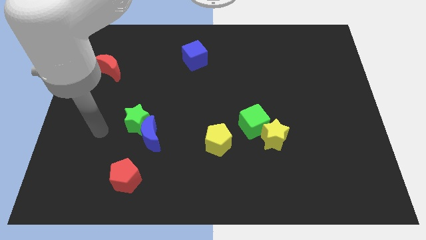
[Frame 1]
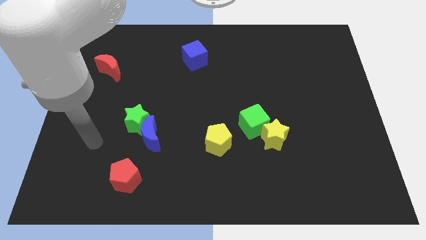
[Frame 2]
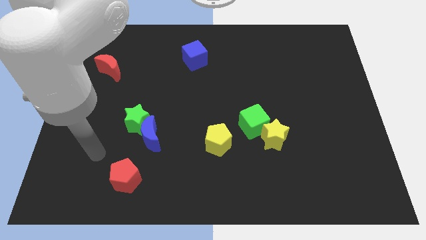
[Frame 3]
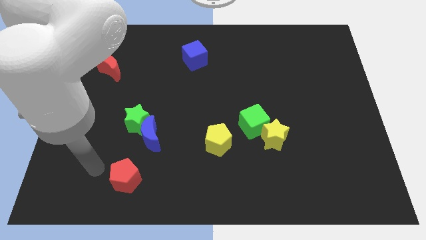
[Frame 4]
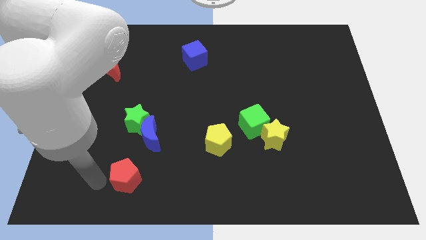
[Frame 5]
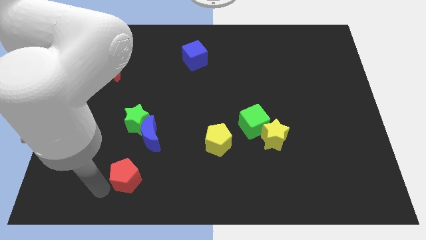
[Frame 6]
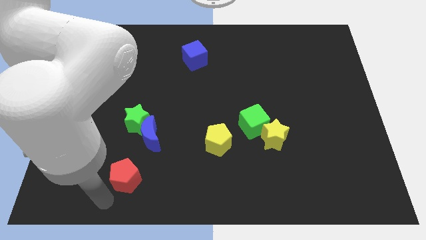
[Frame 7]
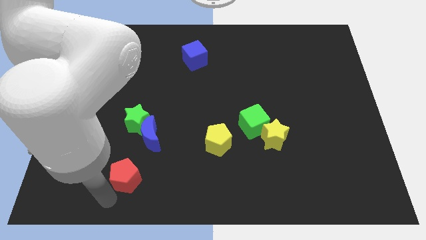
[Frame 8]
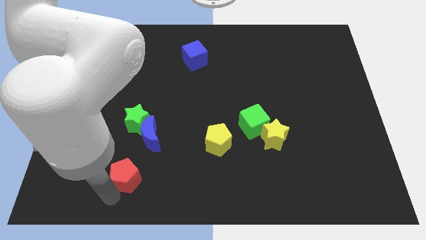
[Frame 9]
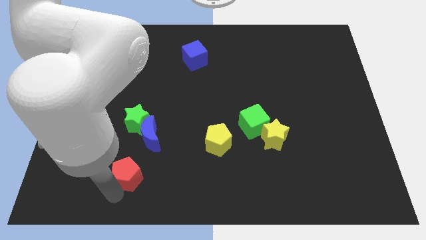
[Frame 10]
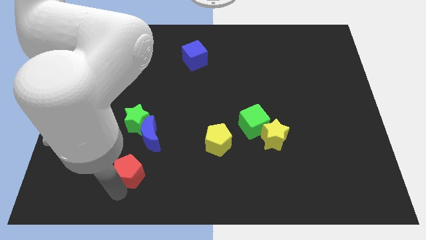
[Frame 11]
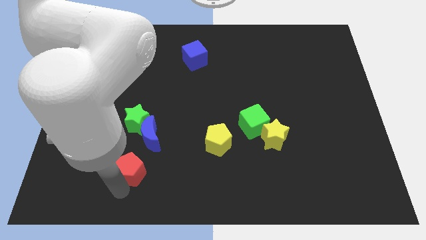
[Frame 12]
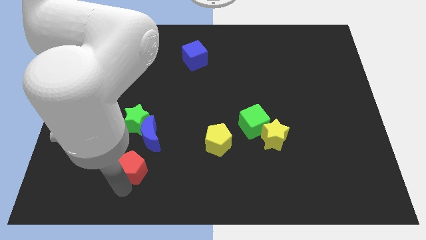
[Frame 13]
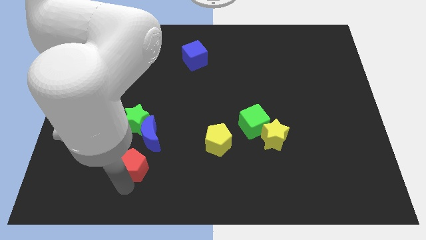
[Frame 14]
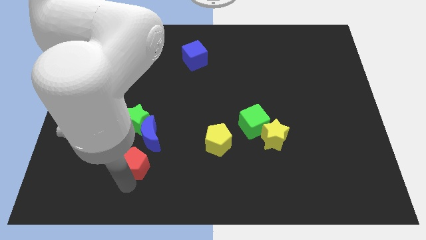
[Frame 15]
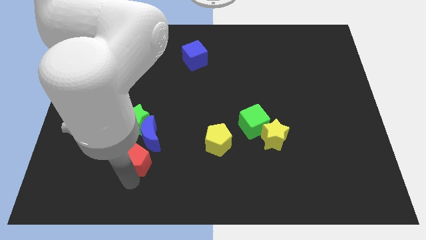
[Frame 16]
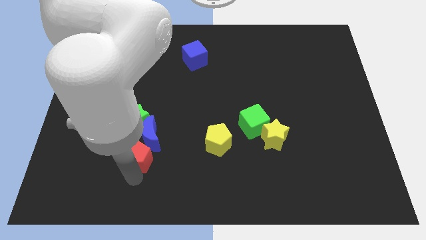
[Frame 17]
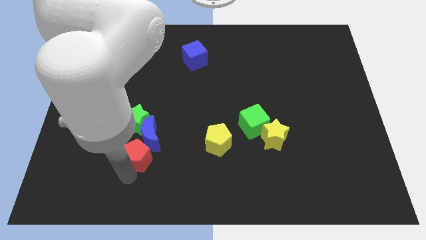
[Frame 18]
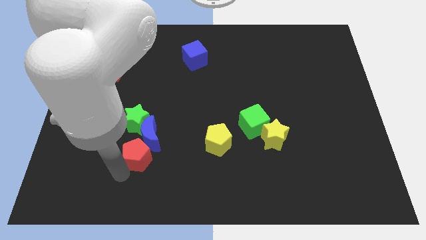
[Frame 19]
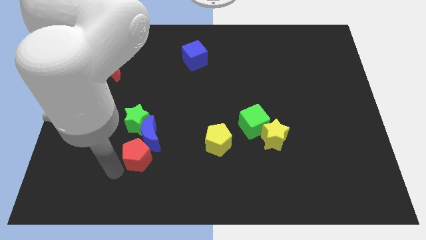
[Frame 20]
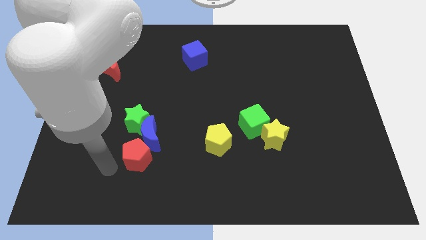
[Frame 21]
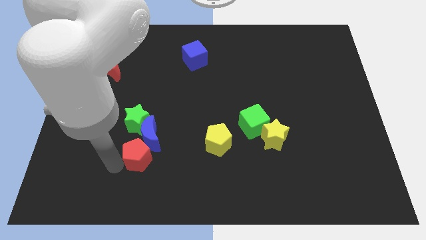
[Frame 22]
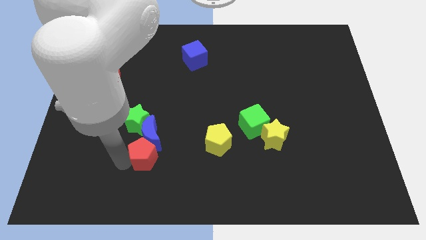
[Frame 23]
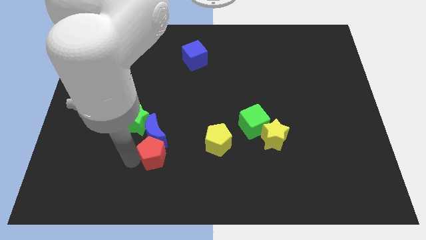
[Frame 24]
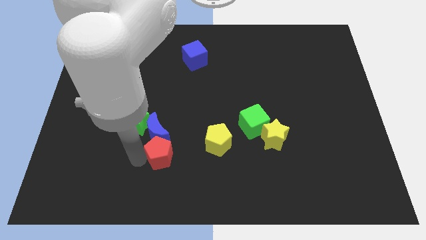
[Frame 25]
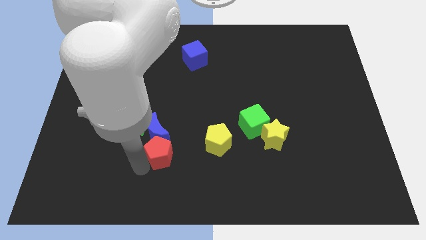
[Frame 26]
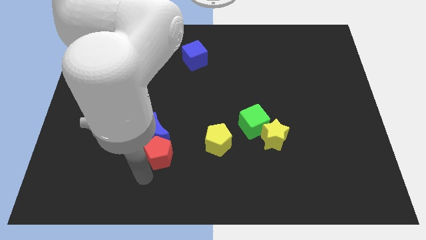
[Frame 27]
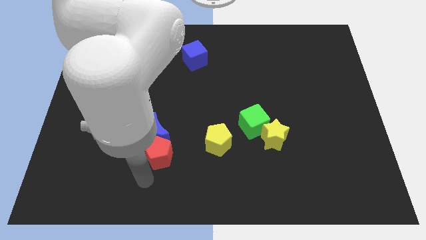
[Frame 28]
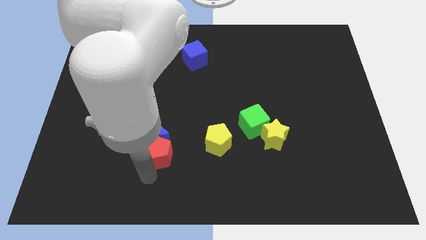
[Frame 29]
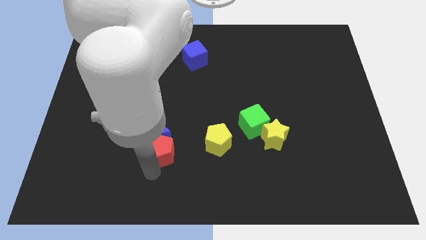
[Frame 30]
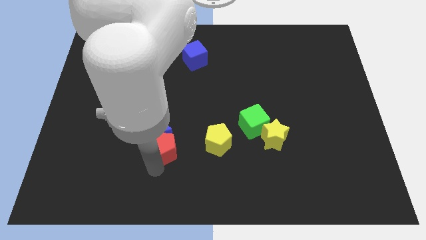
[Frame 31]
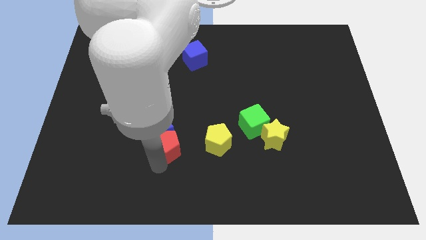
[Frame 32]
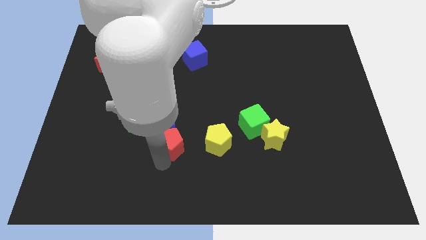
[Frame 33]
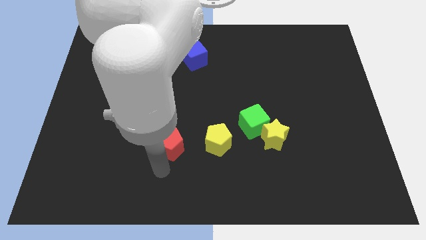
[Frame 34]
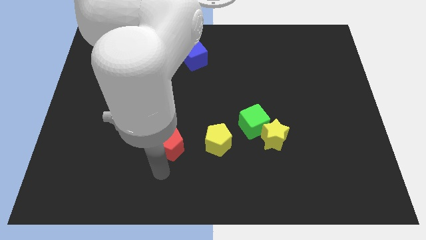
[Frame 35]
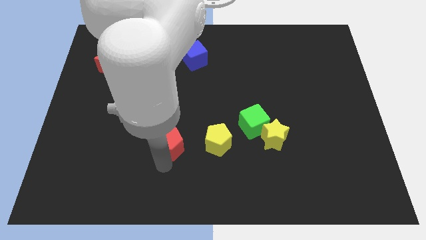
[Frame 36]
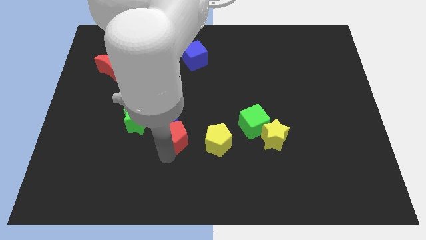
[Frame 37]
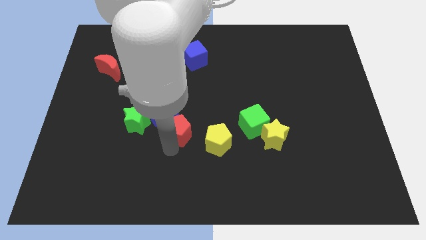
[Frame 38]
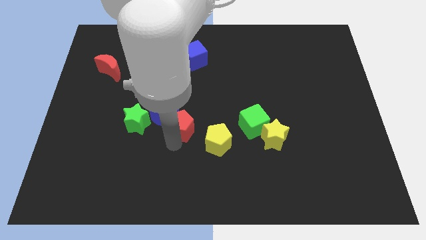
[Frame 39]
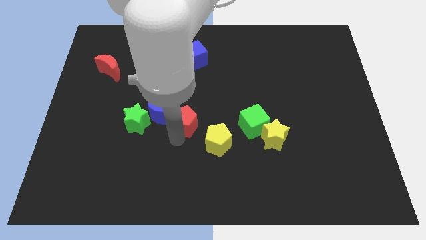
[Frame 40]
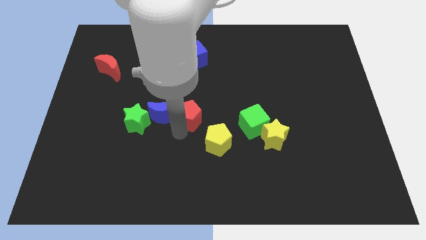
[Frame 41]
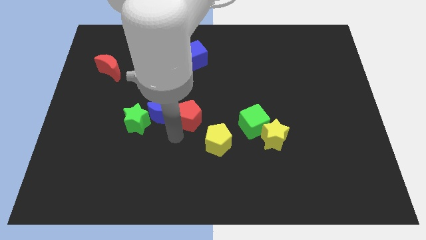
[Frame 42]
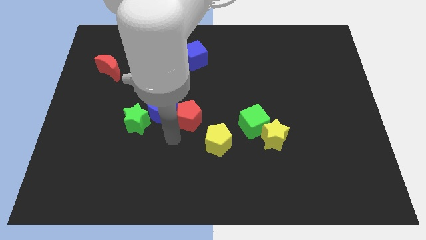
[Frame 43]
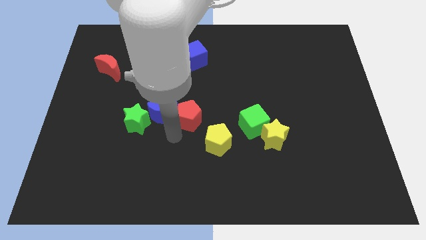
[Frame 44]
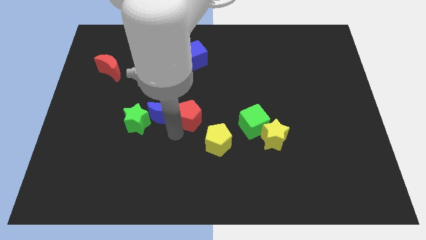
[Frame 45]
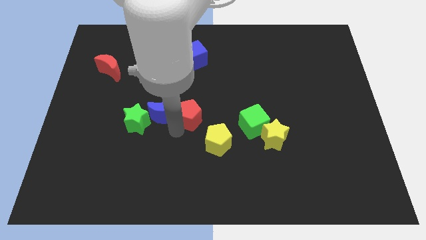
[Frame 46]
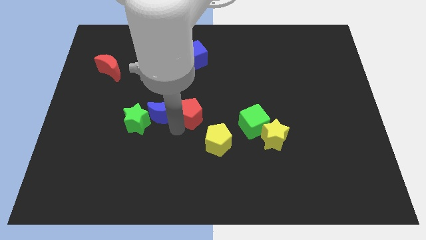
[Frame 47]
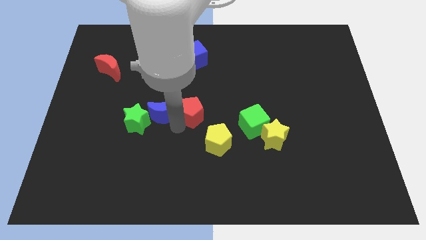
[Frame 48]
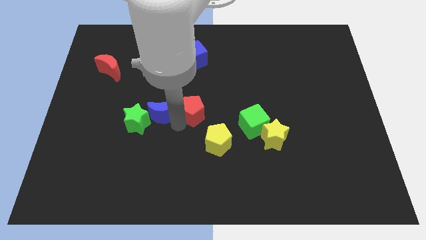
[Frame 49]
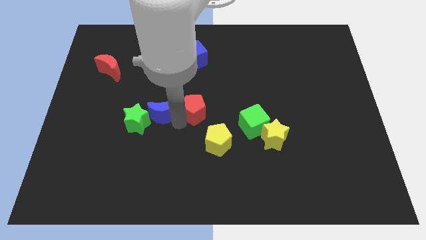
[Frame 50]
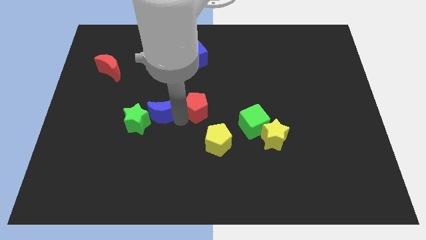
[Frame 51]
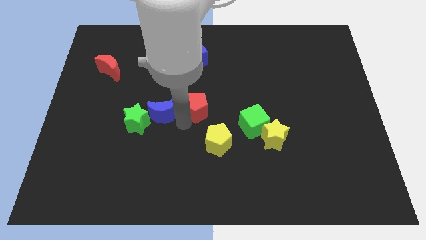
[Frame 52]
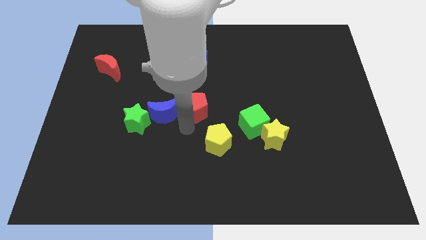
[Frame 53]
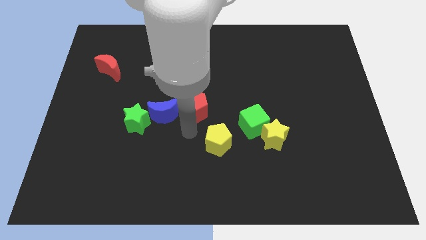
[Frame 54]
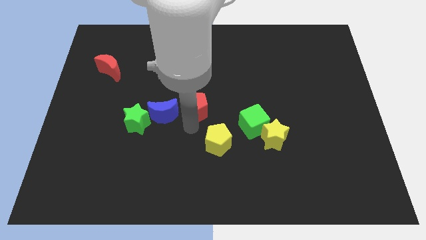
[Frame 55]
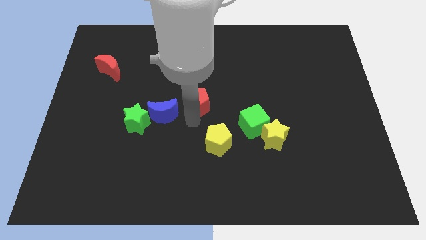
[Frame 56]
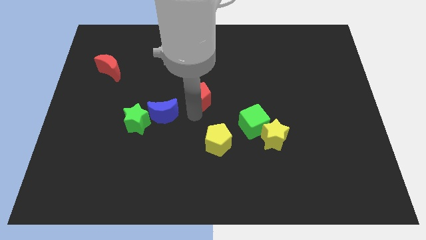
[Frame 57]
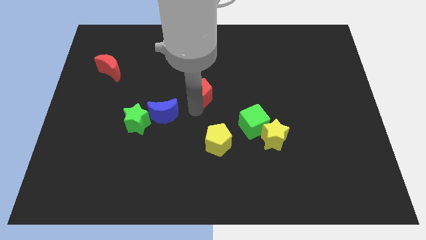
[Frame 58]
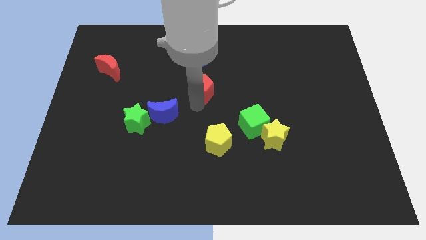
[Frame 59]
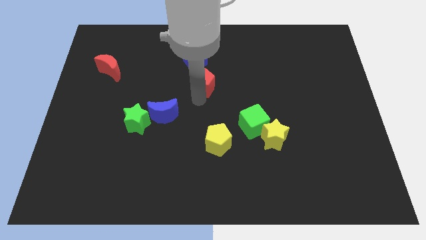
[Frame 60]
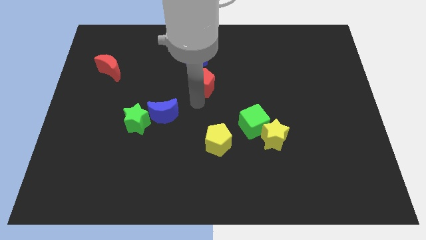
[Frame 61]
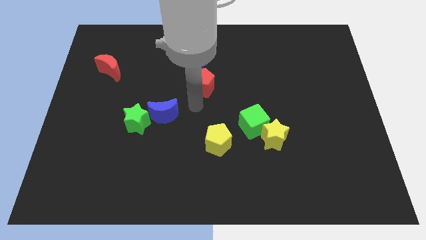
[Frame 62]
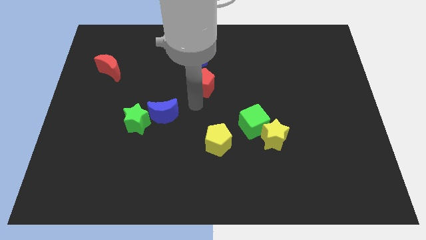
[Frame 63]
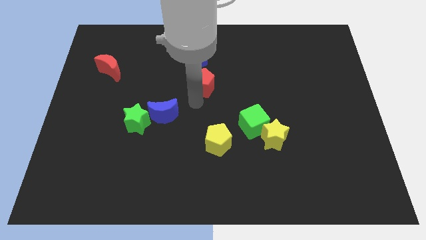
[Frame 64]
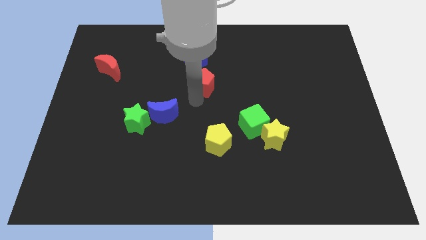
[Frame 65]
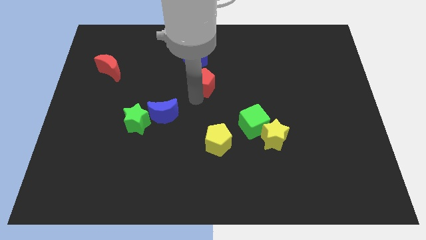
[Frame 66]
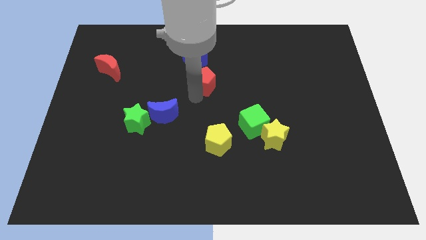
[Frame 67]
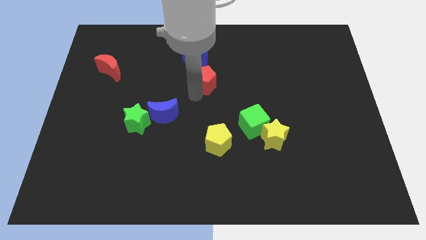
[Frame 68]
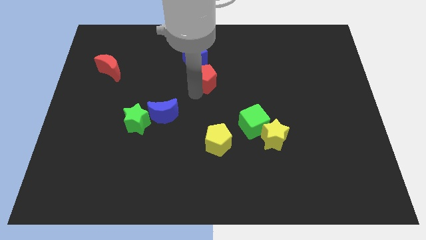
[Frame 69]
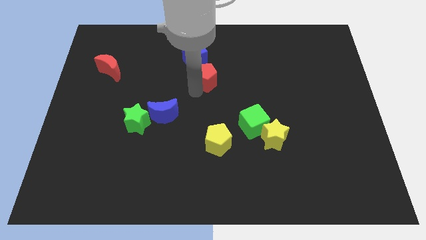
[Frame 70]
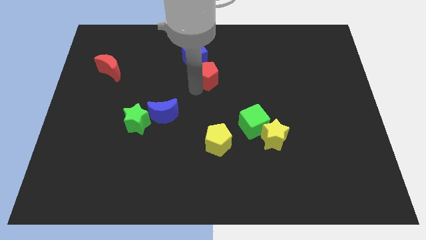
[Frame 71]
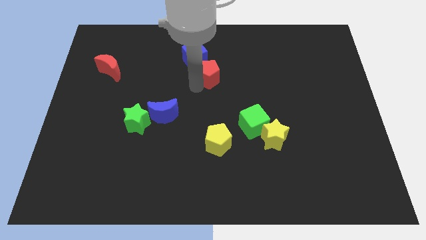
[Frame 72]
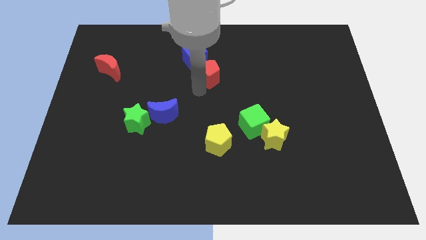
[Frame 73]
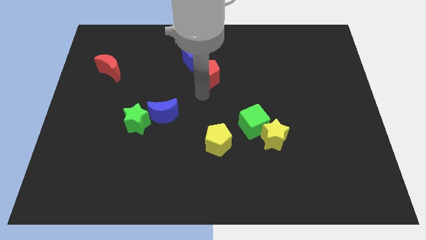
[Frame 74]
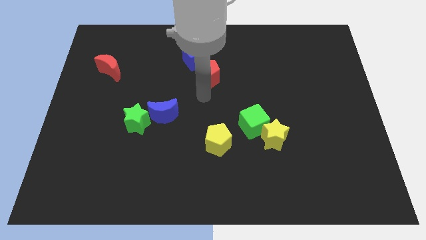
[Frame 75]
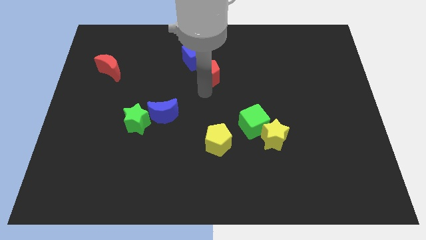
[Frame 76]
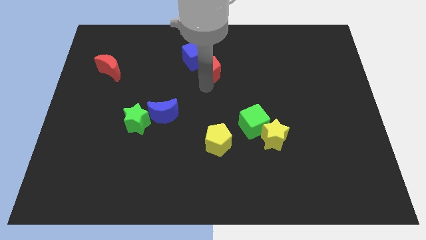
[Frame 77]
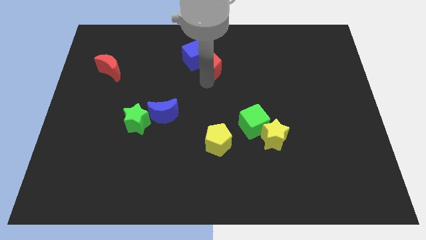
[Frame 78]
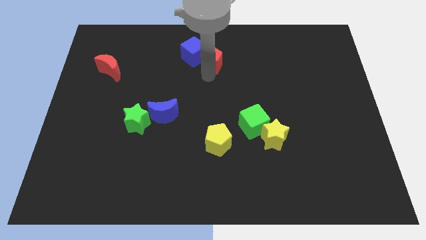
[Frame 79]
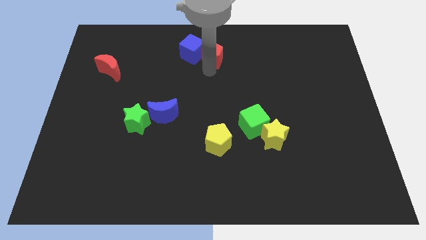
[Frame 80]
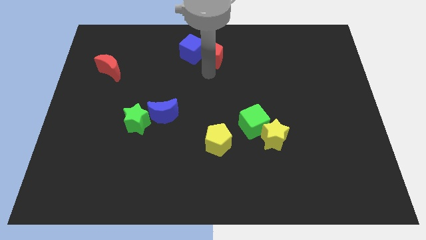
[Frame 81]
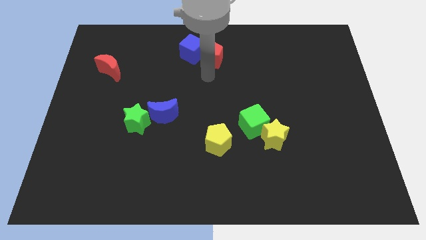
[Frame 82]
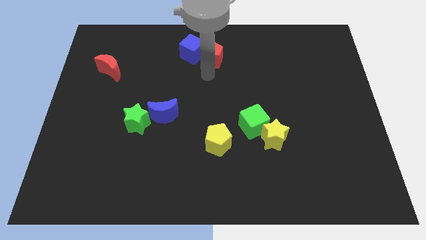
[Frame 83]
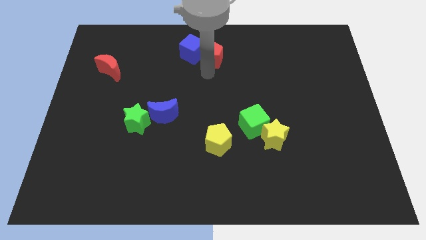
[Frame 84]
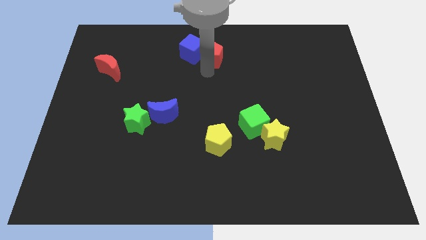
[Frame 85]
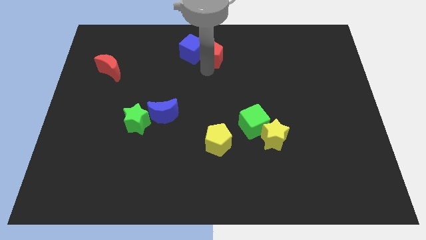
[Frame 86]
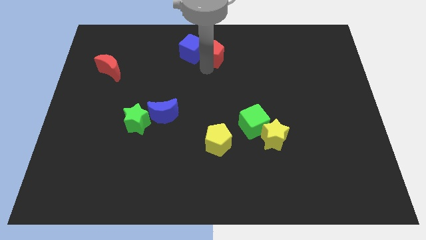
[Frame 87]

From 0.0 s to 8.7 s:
slide the red pentagon to the top side
